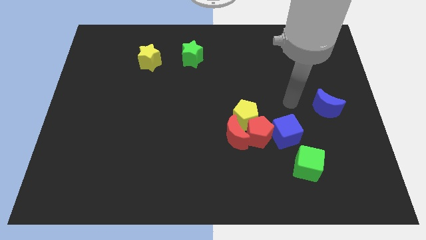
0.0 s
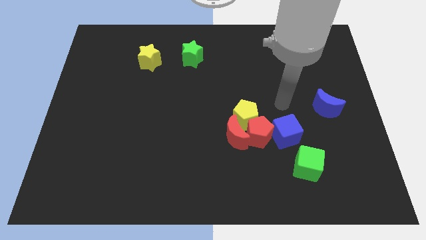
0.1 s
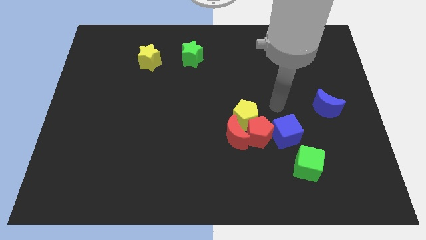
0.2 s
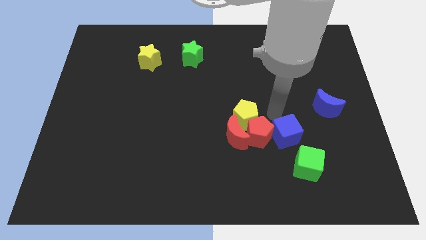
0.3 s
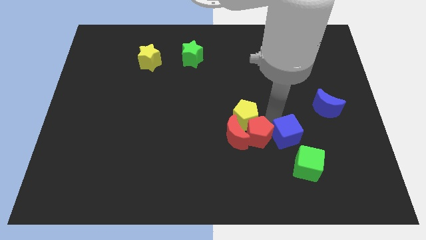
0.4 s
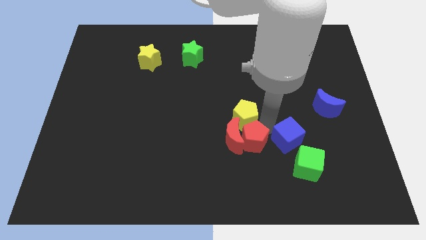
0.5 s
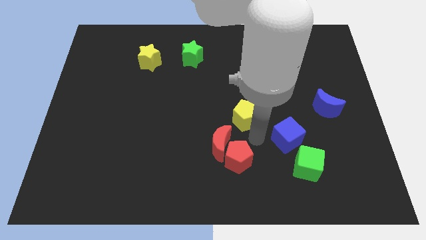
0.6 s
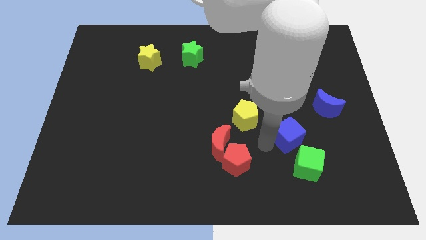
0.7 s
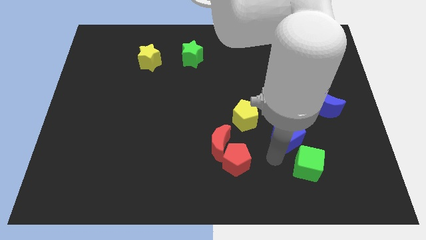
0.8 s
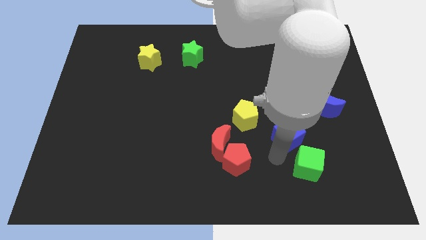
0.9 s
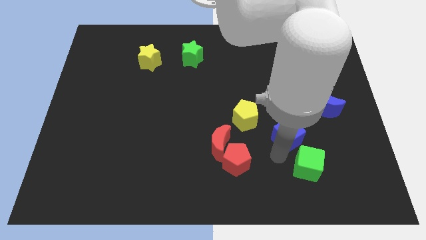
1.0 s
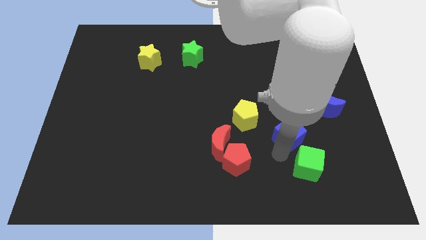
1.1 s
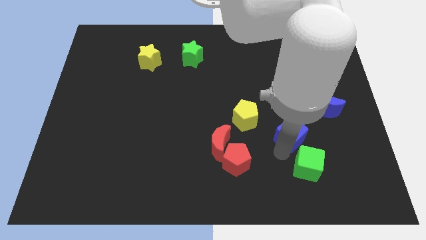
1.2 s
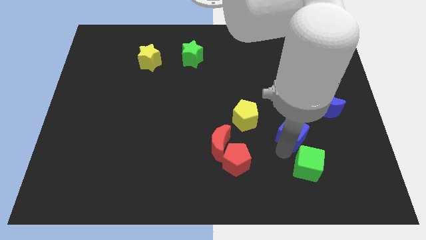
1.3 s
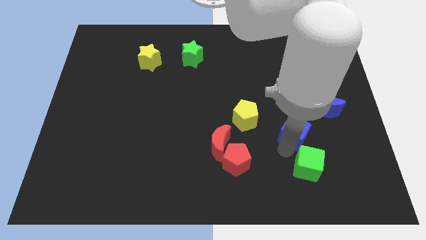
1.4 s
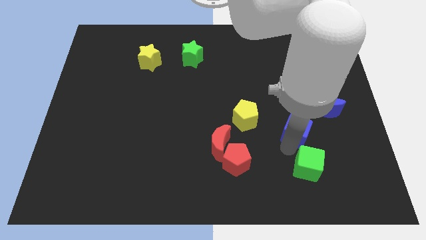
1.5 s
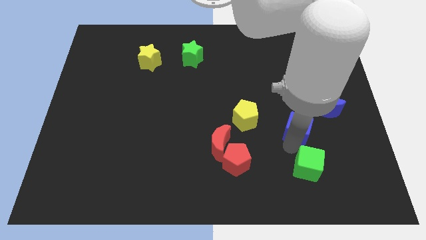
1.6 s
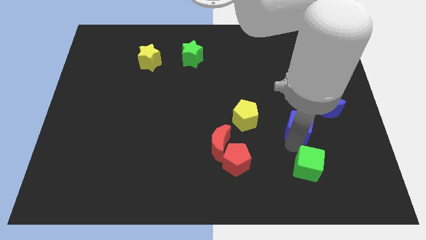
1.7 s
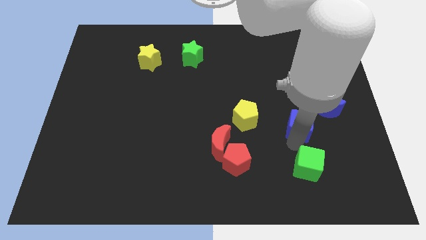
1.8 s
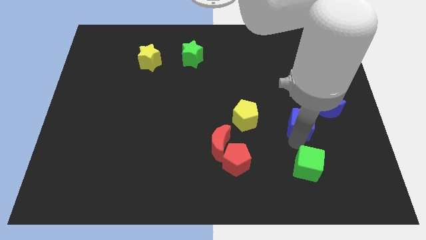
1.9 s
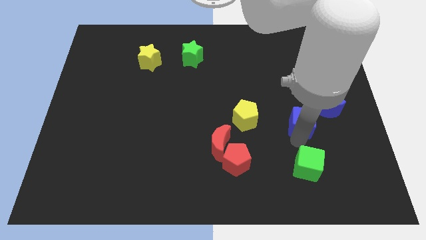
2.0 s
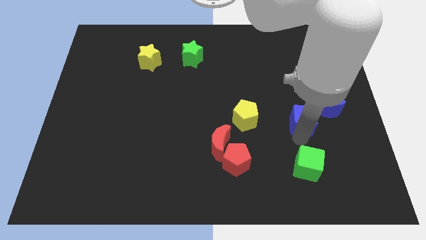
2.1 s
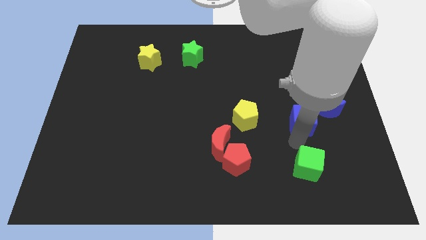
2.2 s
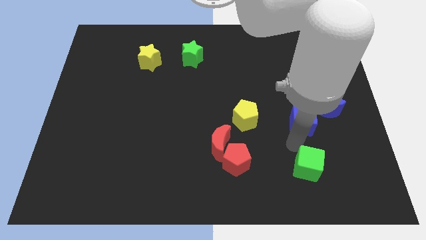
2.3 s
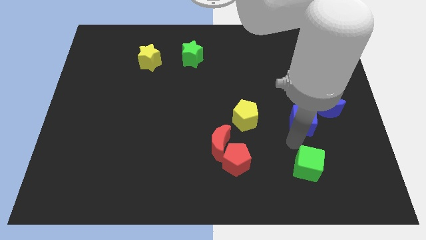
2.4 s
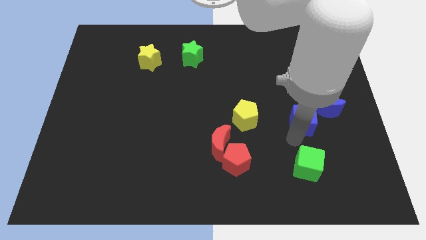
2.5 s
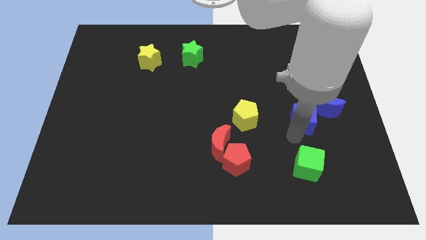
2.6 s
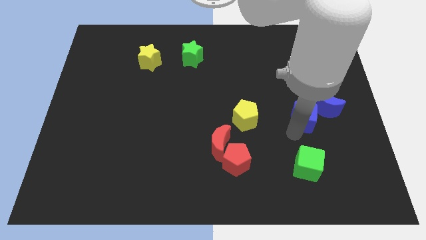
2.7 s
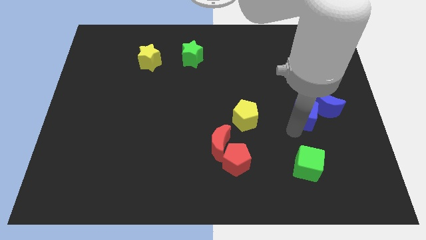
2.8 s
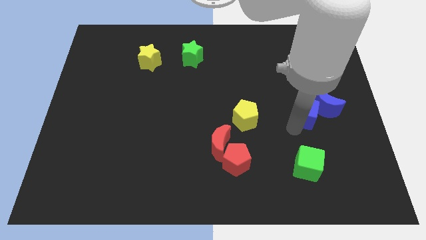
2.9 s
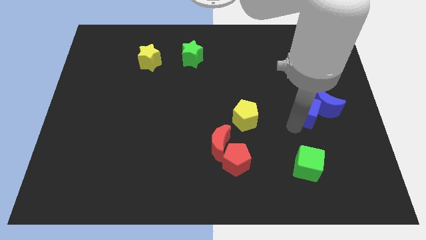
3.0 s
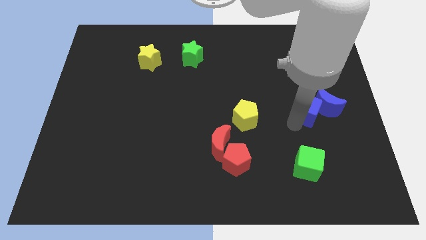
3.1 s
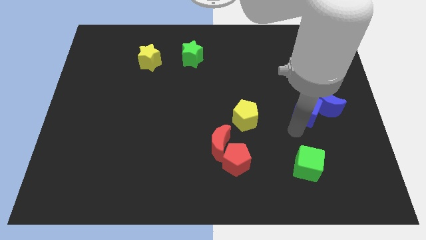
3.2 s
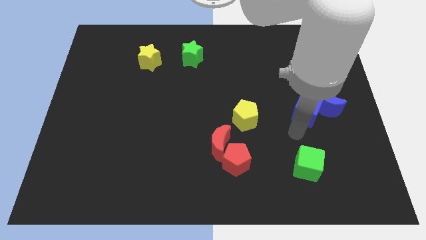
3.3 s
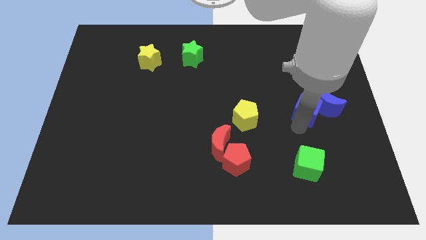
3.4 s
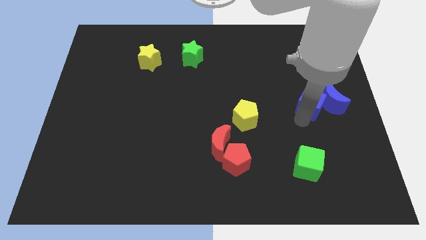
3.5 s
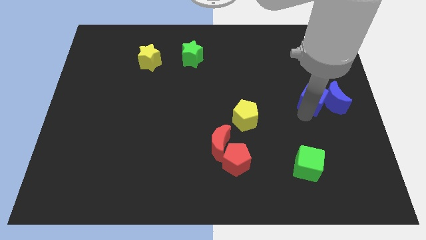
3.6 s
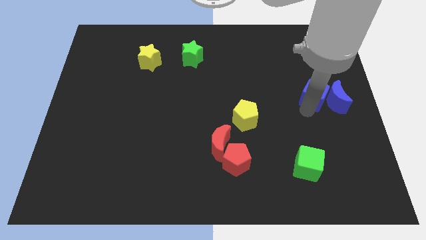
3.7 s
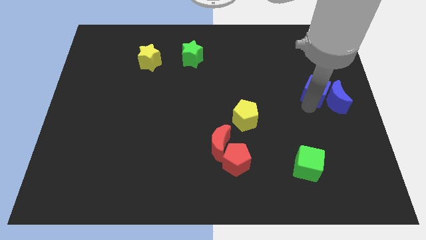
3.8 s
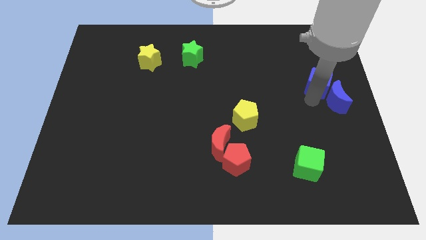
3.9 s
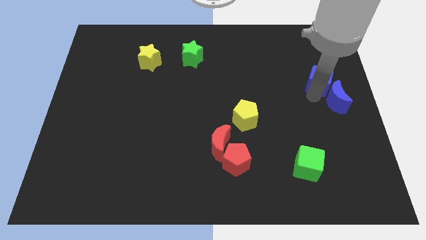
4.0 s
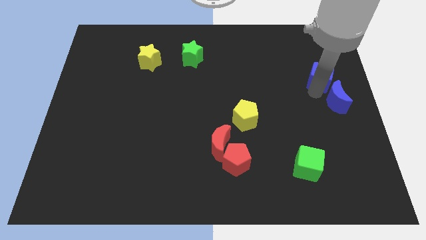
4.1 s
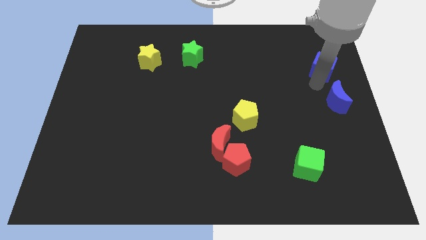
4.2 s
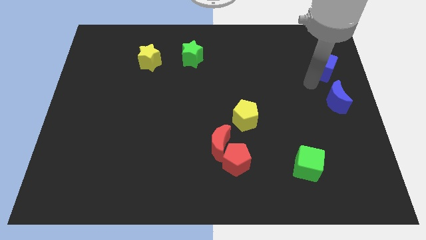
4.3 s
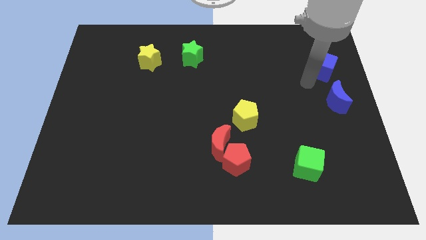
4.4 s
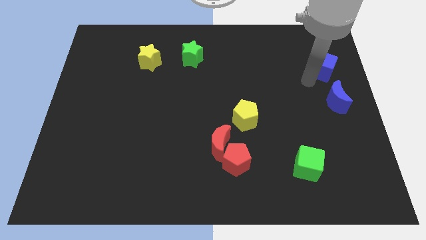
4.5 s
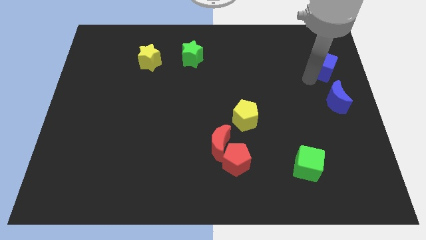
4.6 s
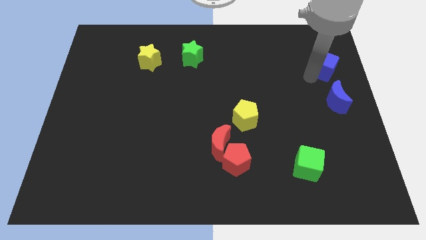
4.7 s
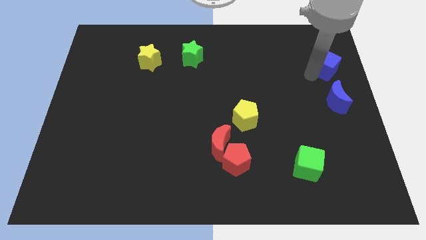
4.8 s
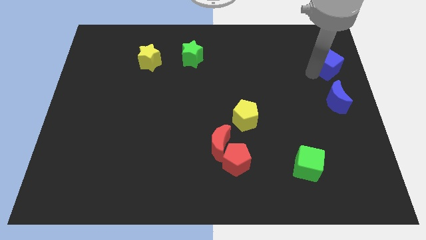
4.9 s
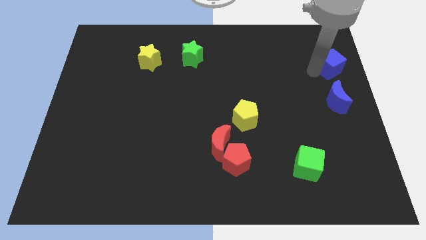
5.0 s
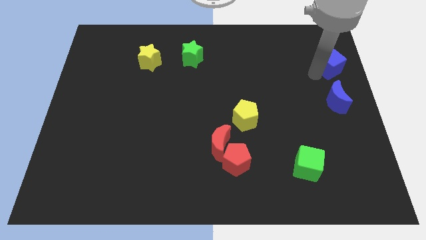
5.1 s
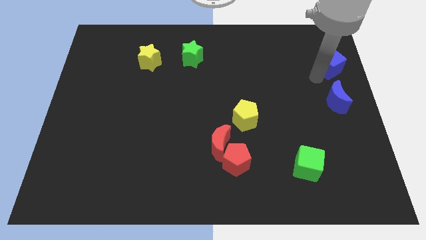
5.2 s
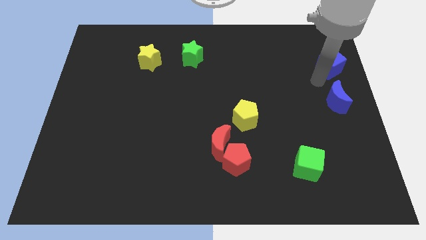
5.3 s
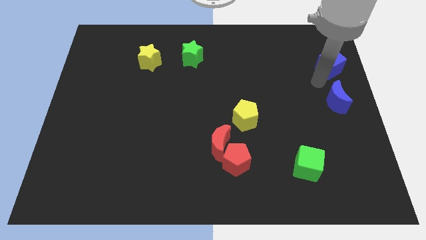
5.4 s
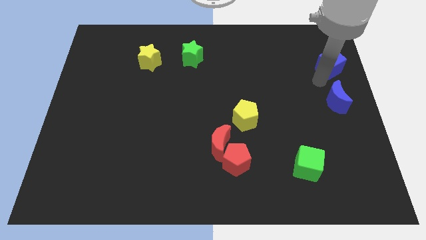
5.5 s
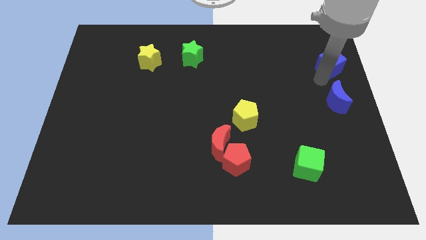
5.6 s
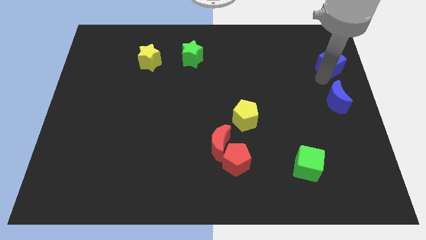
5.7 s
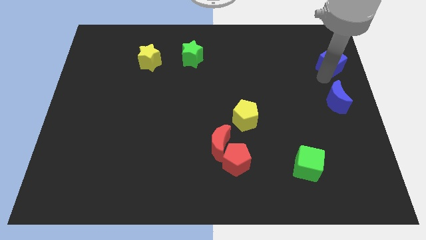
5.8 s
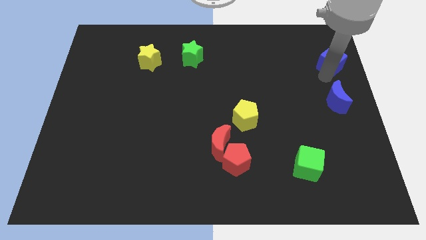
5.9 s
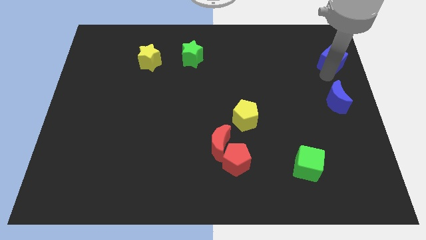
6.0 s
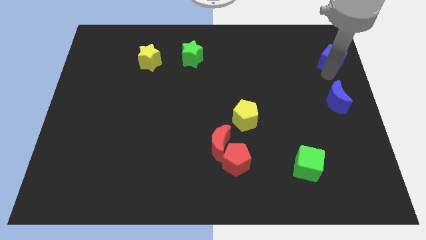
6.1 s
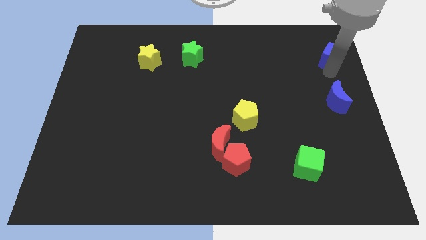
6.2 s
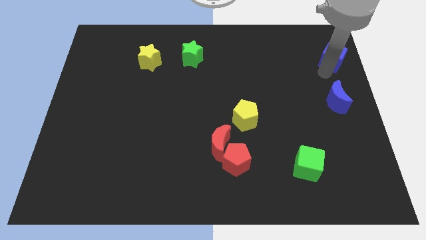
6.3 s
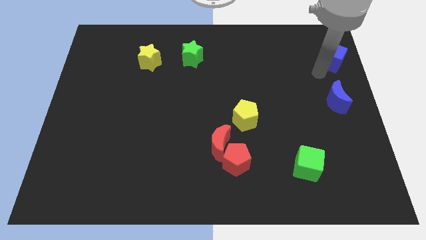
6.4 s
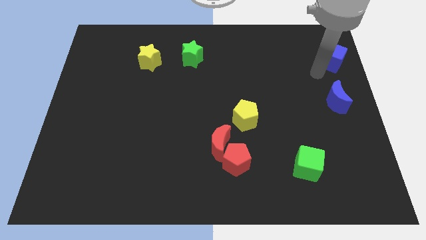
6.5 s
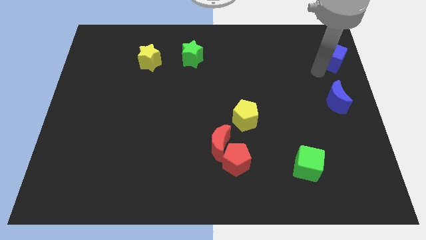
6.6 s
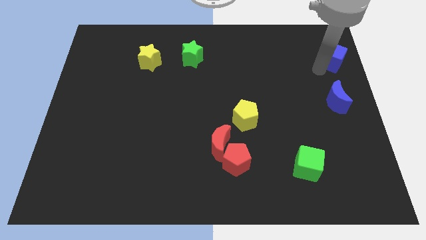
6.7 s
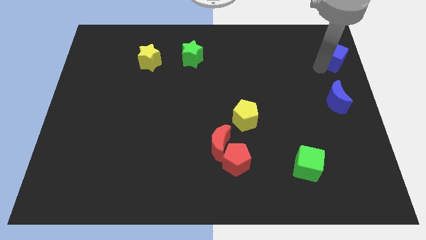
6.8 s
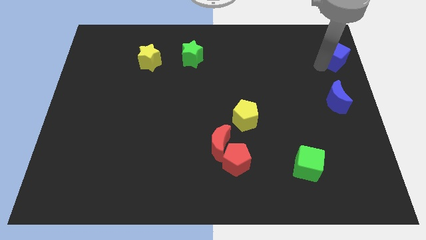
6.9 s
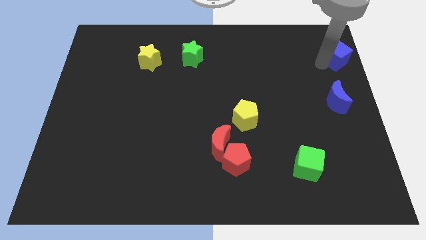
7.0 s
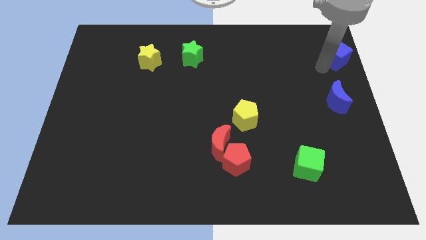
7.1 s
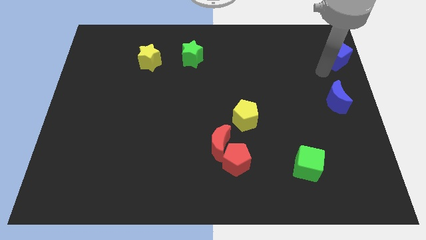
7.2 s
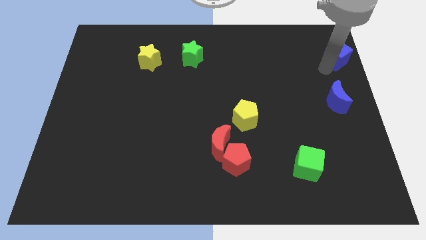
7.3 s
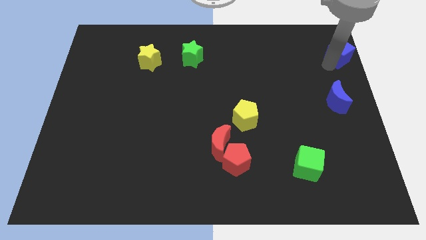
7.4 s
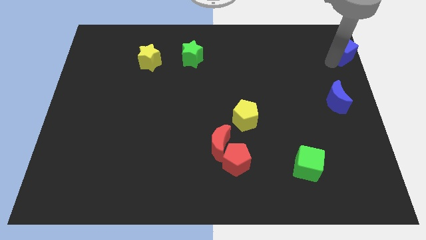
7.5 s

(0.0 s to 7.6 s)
push the blue cube to the top right of the board
